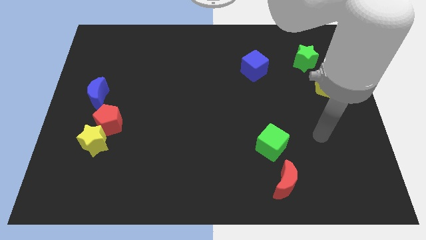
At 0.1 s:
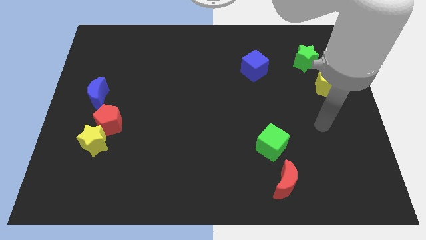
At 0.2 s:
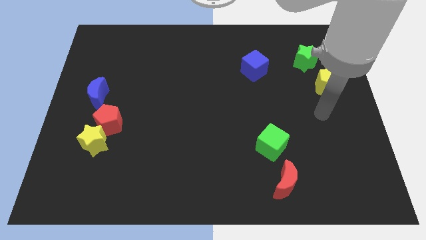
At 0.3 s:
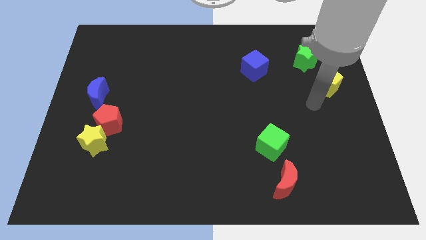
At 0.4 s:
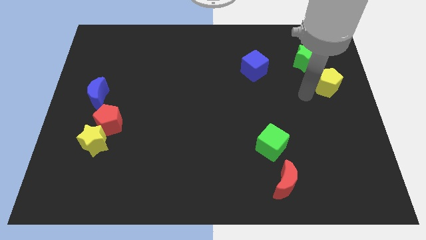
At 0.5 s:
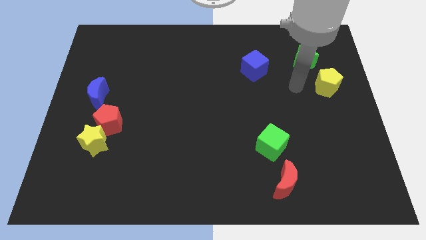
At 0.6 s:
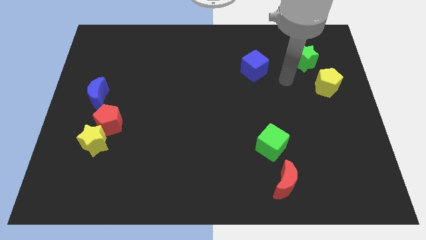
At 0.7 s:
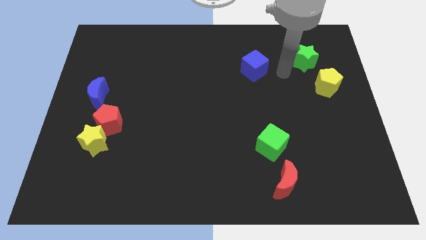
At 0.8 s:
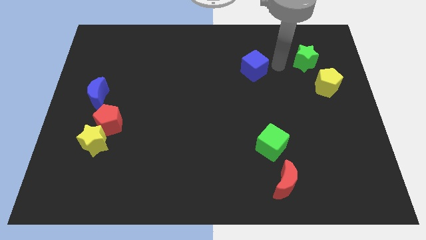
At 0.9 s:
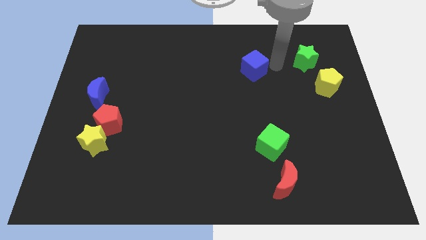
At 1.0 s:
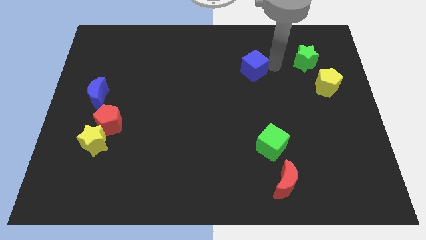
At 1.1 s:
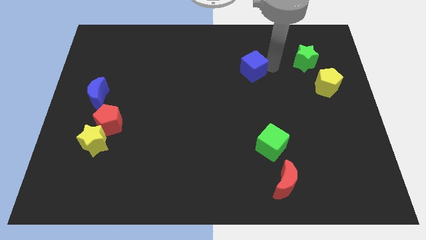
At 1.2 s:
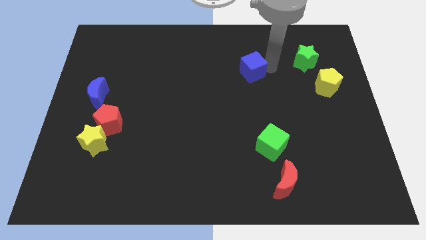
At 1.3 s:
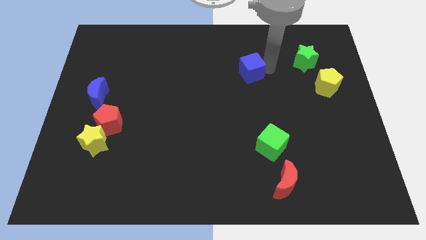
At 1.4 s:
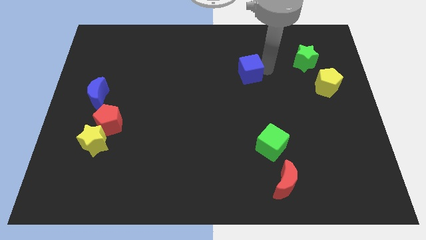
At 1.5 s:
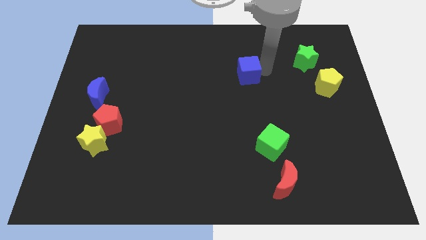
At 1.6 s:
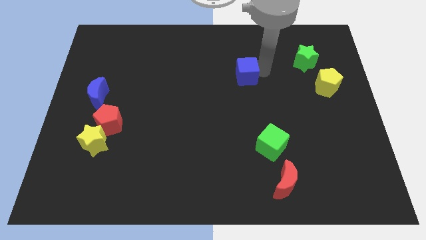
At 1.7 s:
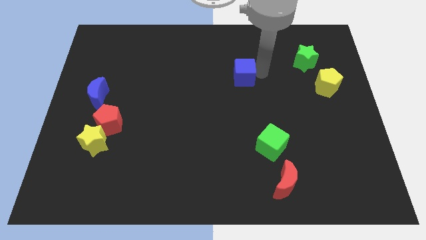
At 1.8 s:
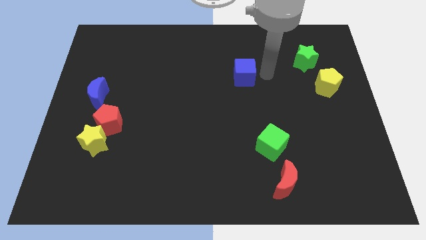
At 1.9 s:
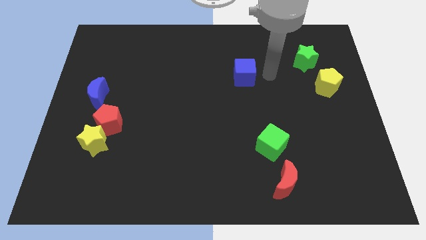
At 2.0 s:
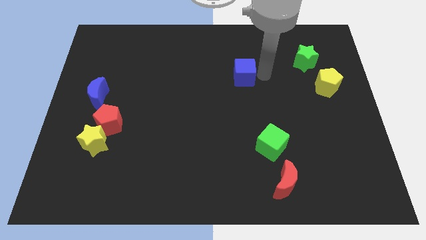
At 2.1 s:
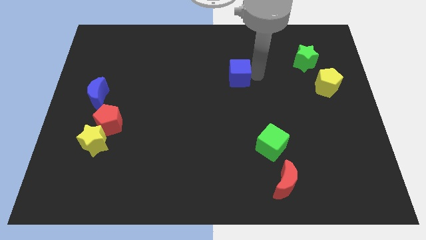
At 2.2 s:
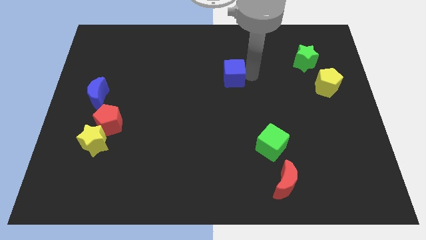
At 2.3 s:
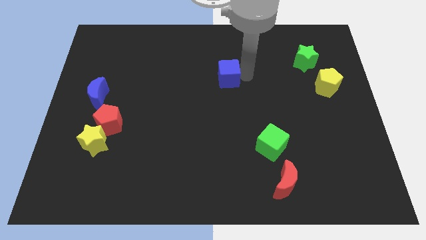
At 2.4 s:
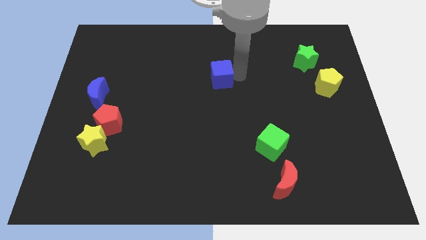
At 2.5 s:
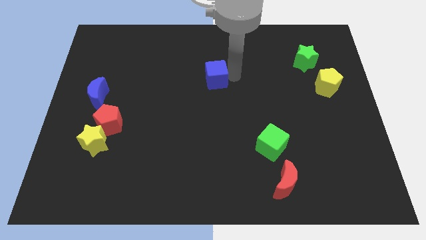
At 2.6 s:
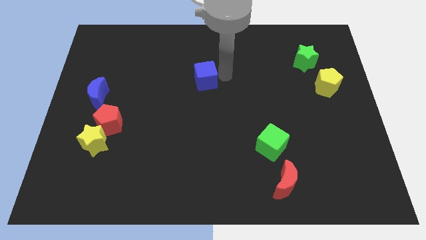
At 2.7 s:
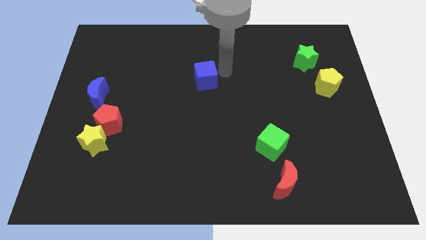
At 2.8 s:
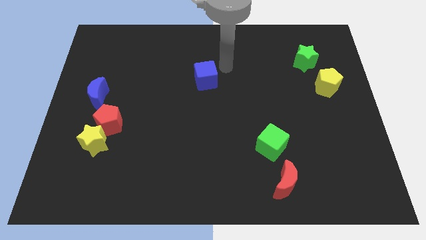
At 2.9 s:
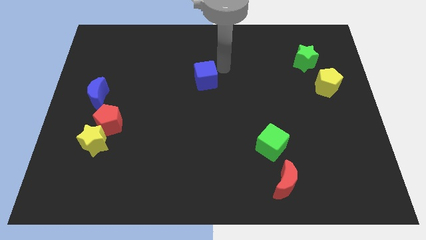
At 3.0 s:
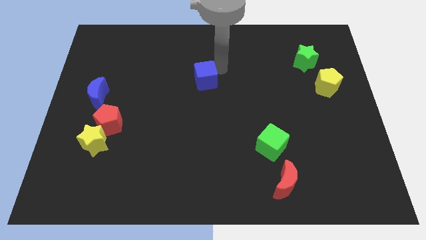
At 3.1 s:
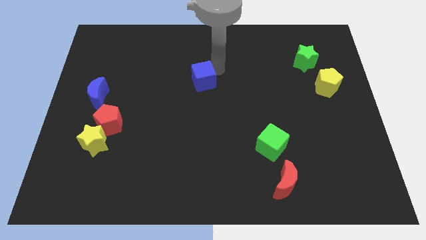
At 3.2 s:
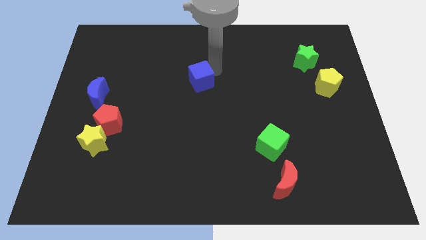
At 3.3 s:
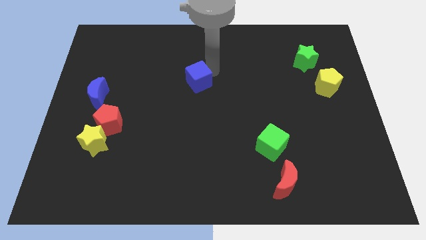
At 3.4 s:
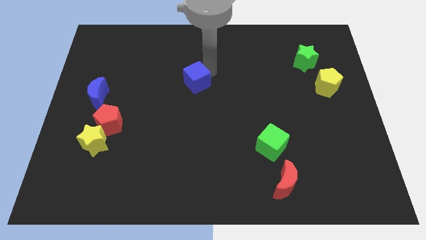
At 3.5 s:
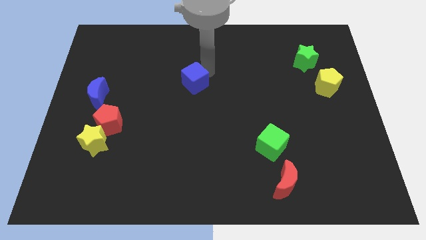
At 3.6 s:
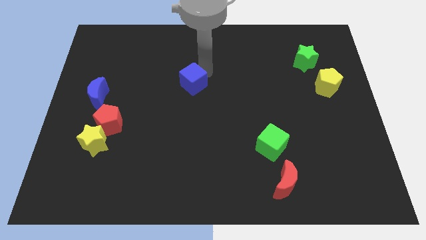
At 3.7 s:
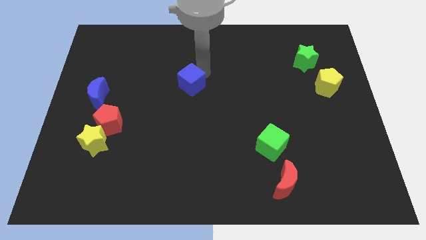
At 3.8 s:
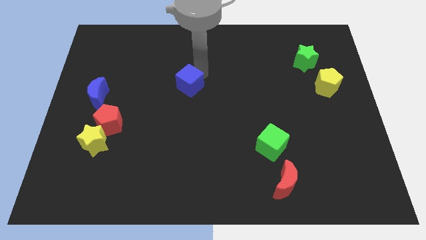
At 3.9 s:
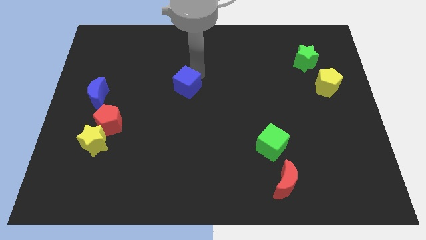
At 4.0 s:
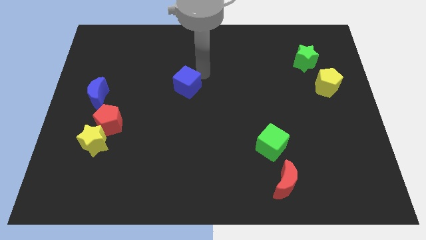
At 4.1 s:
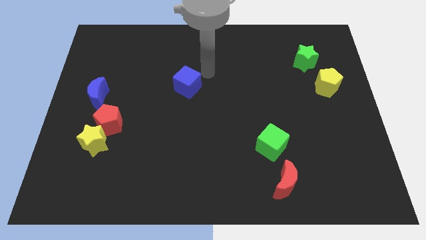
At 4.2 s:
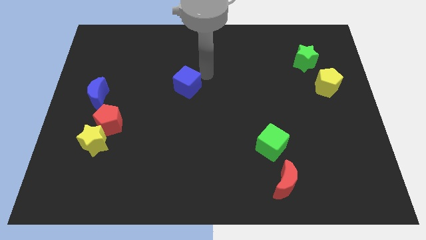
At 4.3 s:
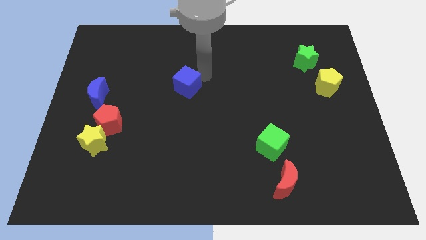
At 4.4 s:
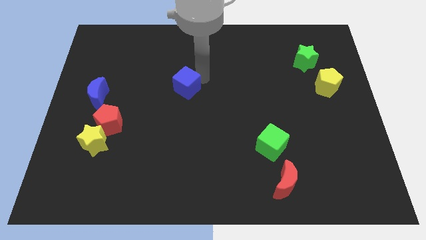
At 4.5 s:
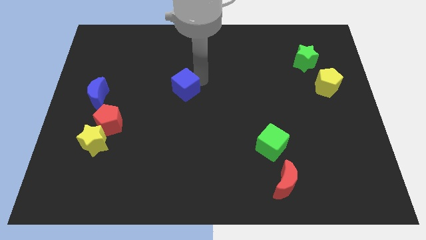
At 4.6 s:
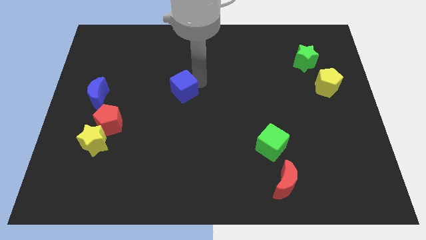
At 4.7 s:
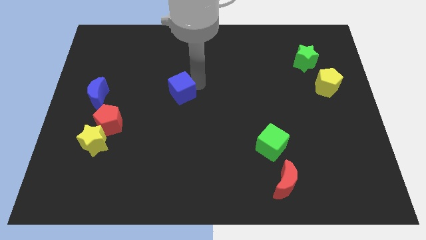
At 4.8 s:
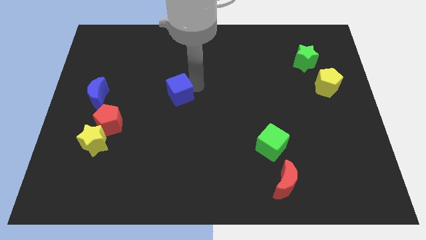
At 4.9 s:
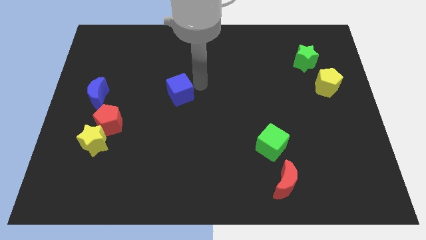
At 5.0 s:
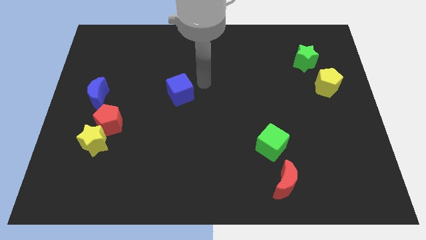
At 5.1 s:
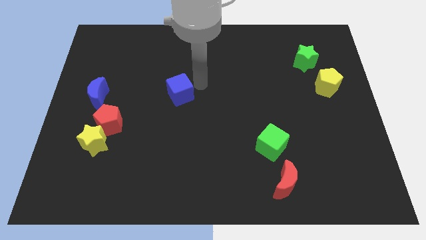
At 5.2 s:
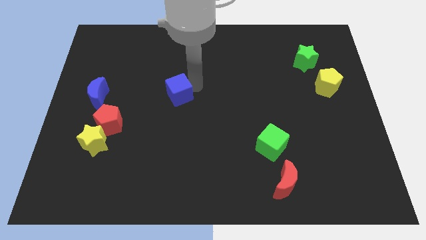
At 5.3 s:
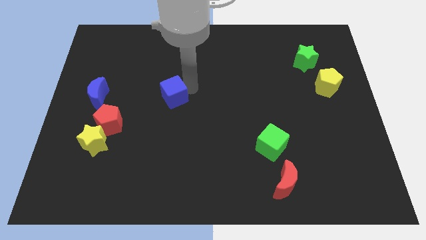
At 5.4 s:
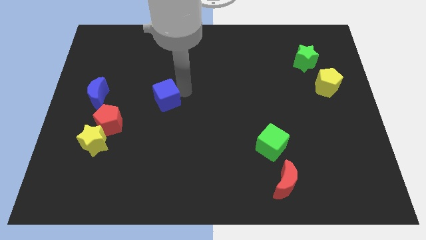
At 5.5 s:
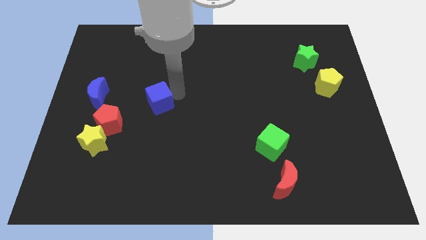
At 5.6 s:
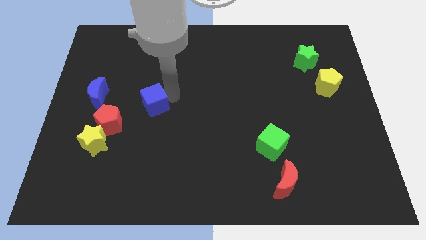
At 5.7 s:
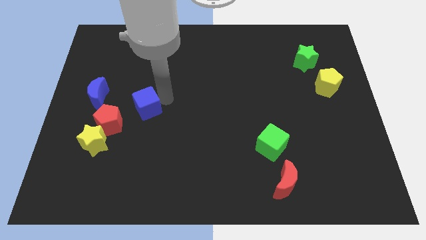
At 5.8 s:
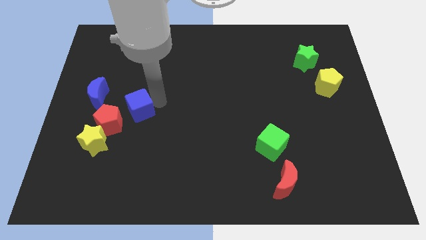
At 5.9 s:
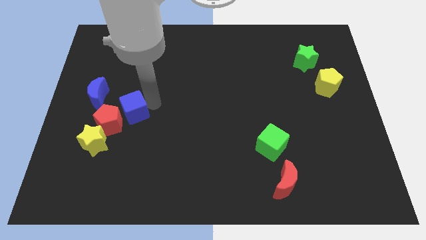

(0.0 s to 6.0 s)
put the blue cube close to the red pentagon

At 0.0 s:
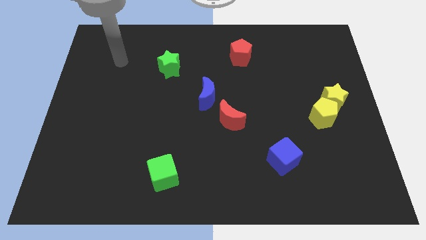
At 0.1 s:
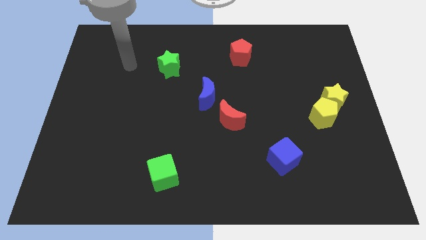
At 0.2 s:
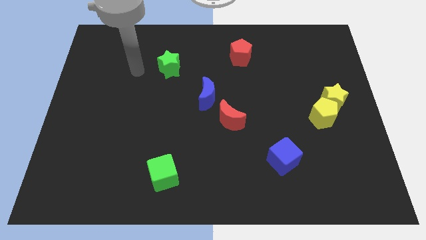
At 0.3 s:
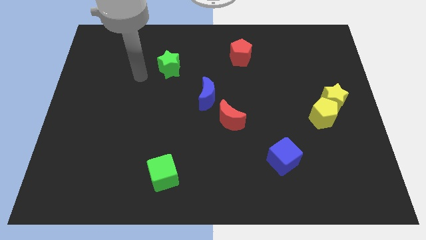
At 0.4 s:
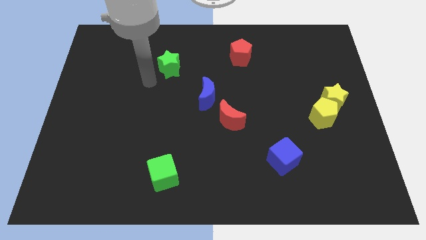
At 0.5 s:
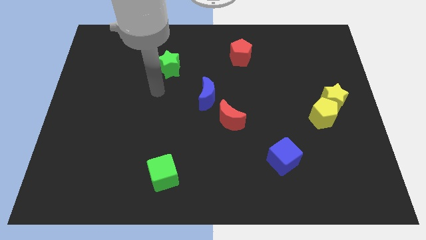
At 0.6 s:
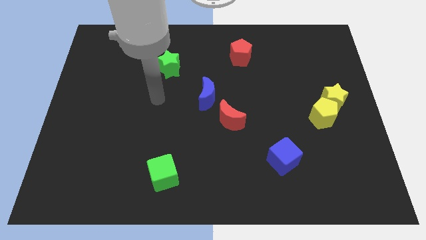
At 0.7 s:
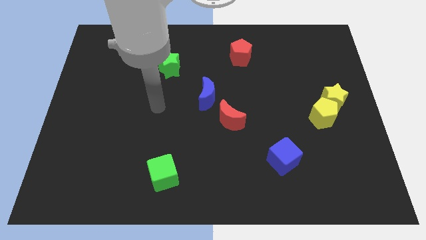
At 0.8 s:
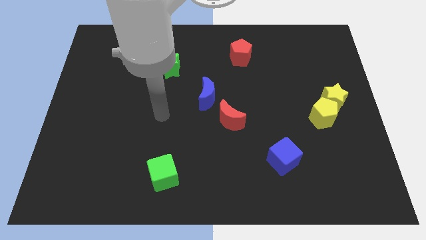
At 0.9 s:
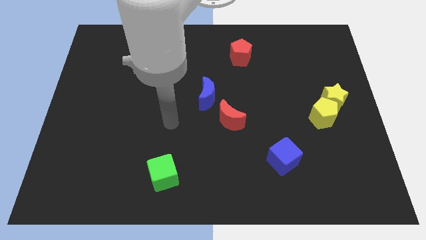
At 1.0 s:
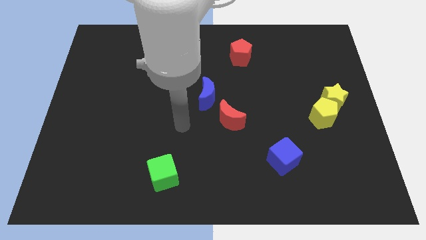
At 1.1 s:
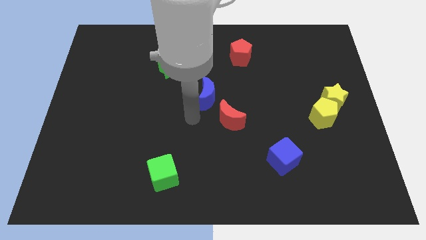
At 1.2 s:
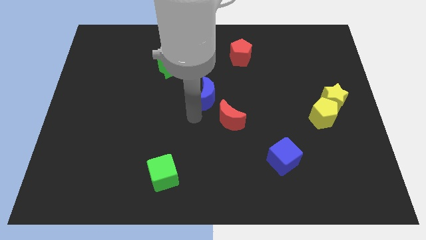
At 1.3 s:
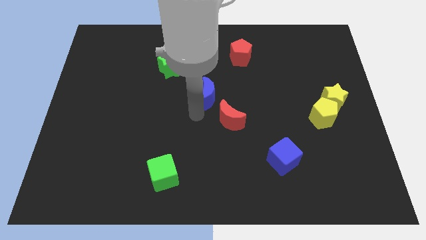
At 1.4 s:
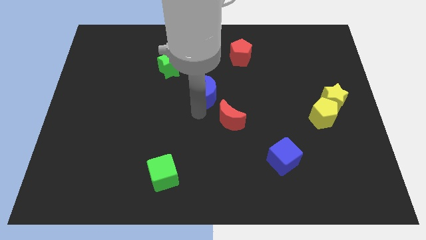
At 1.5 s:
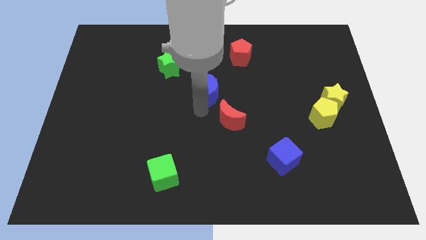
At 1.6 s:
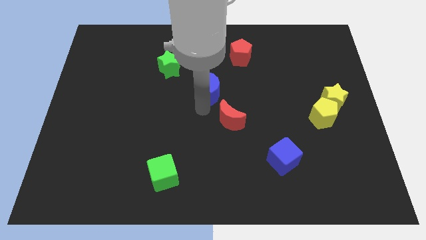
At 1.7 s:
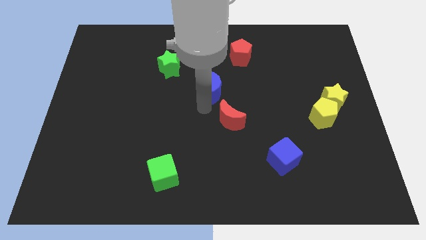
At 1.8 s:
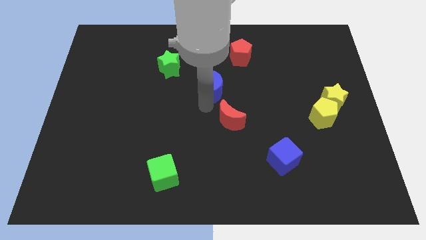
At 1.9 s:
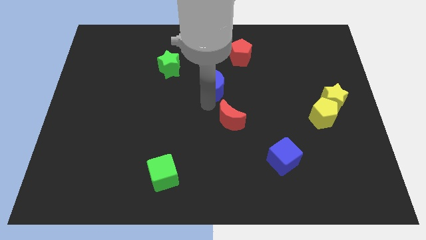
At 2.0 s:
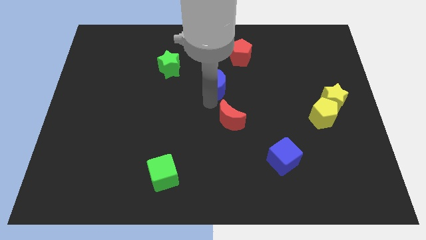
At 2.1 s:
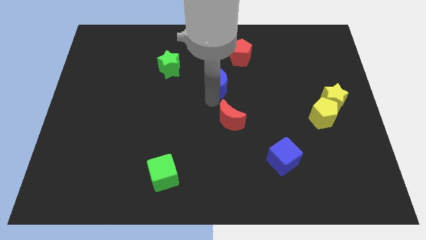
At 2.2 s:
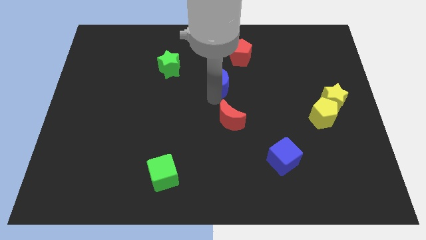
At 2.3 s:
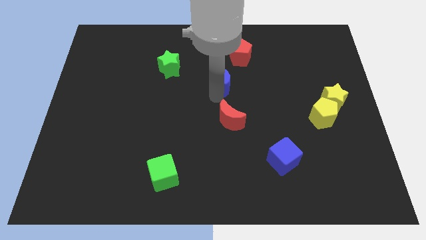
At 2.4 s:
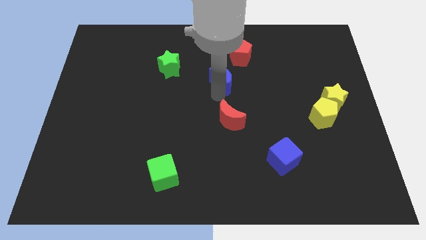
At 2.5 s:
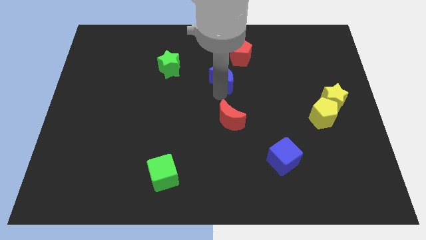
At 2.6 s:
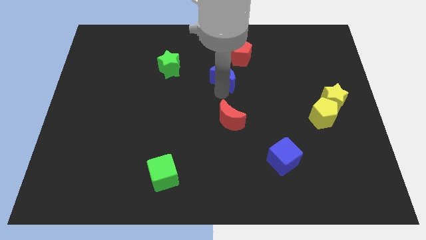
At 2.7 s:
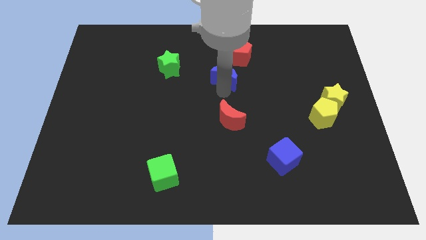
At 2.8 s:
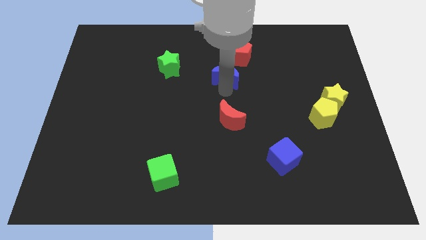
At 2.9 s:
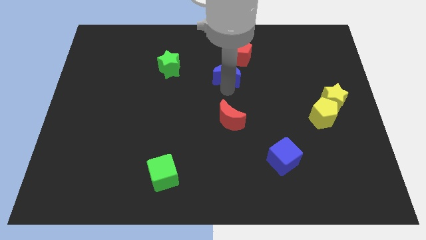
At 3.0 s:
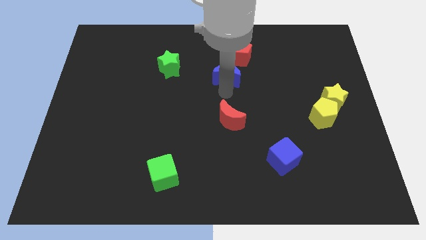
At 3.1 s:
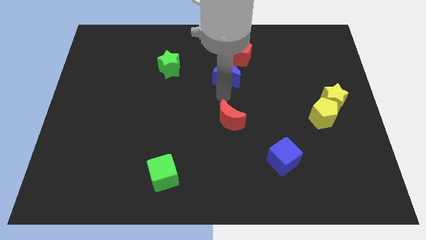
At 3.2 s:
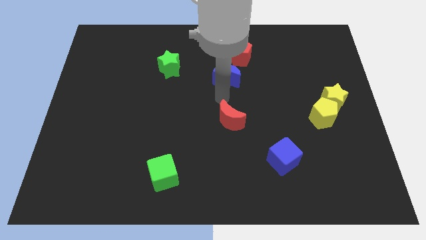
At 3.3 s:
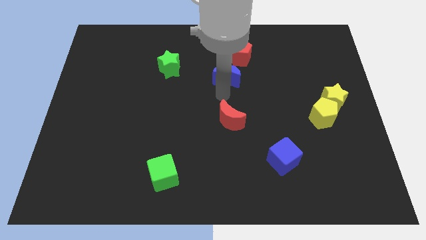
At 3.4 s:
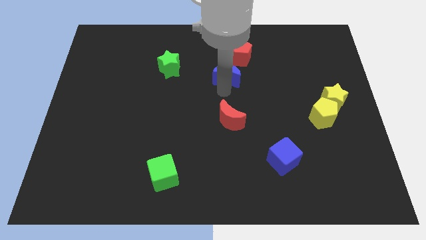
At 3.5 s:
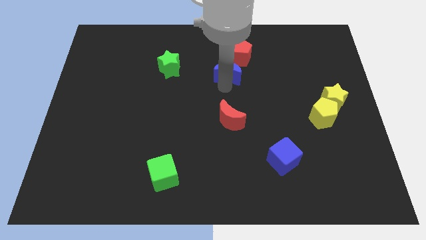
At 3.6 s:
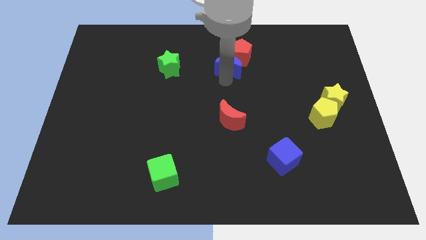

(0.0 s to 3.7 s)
push the blue moon next to the red pentagon
